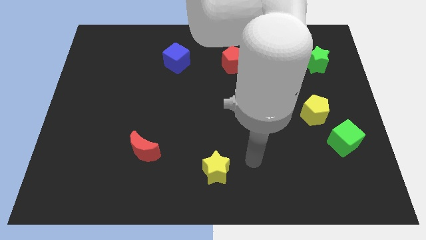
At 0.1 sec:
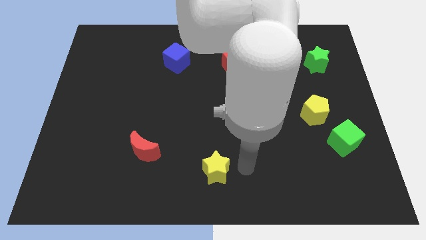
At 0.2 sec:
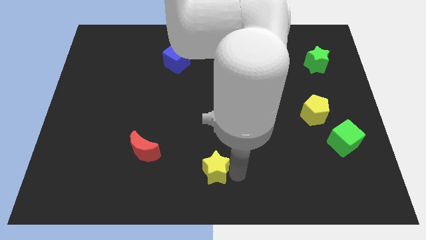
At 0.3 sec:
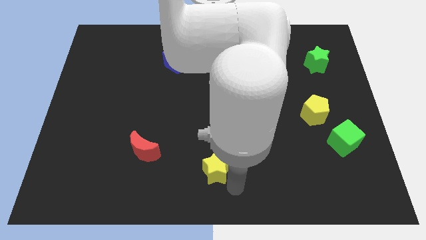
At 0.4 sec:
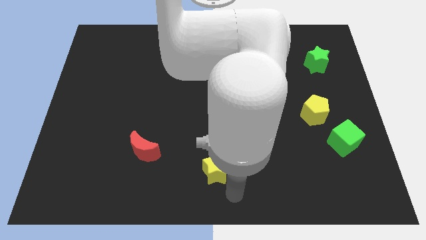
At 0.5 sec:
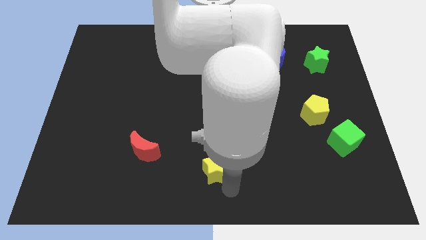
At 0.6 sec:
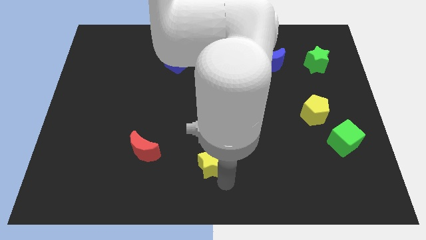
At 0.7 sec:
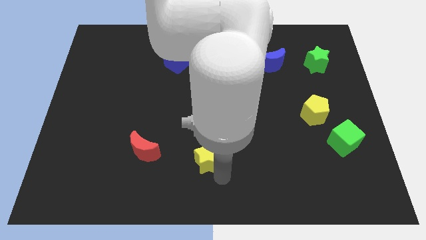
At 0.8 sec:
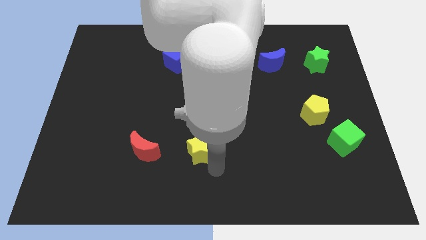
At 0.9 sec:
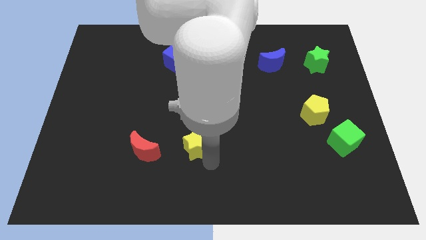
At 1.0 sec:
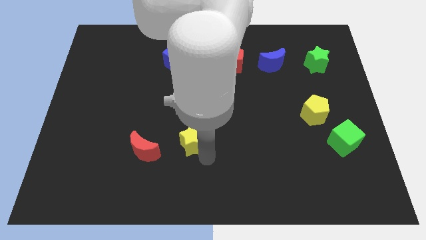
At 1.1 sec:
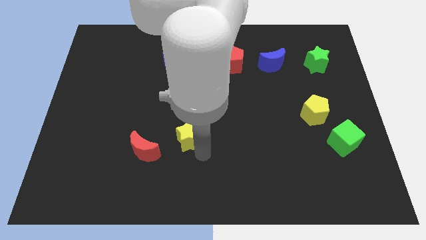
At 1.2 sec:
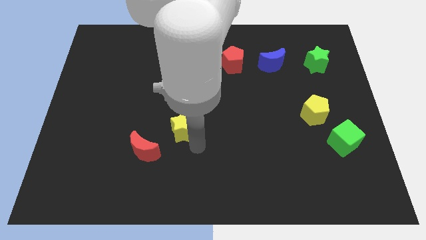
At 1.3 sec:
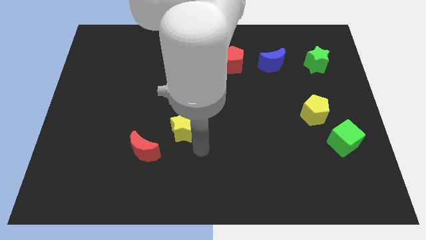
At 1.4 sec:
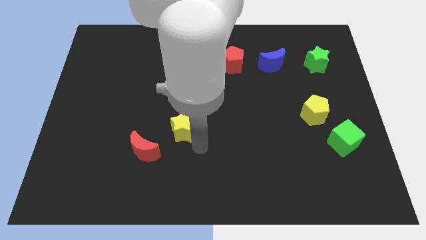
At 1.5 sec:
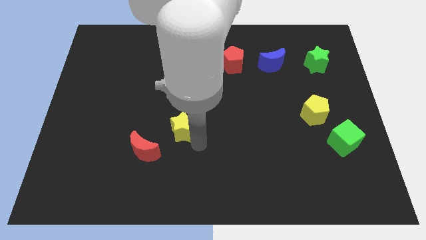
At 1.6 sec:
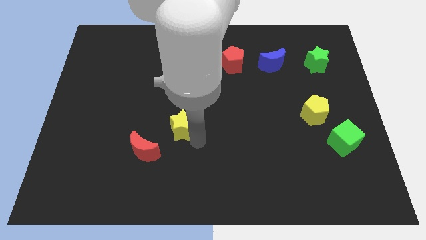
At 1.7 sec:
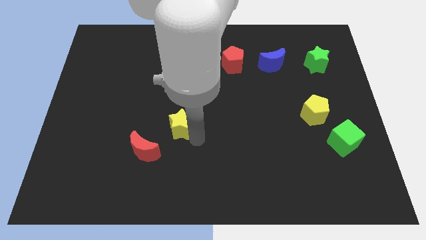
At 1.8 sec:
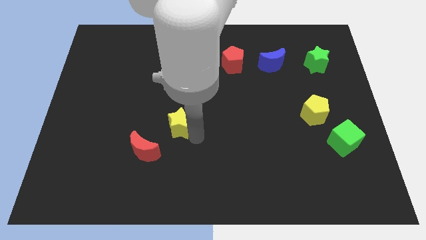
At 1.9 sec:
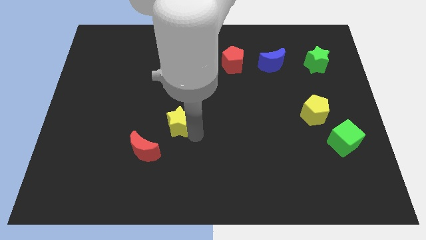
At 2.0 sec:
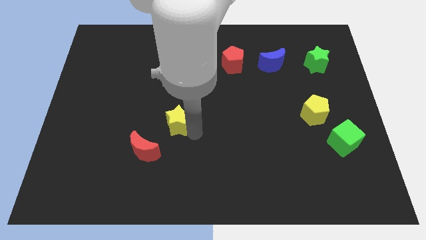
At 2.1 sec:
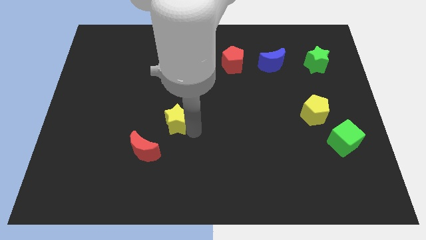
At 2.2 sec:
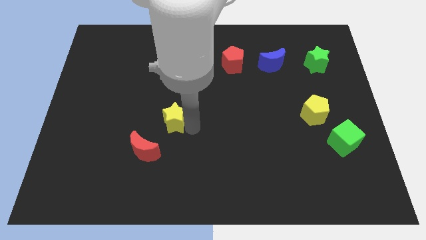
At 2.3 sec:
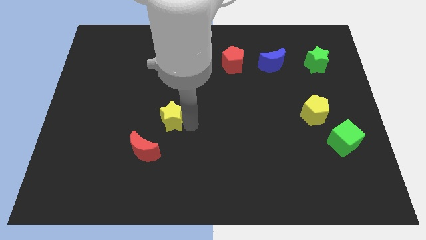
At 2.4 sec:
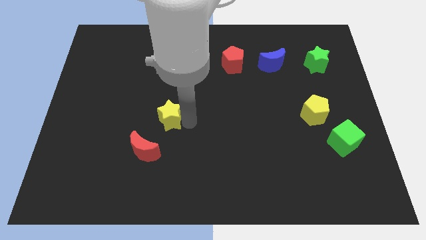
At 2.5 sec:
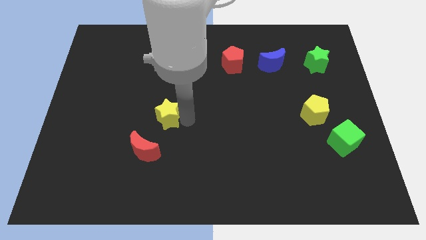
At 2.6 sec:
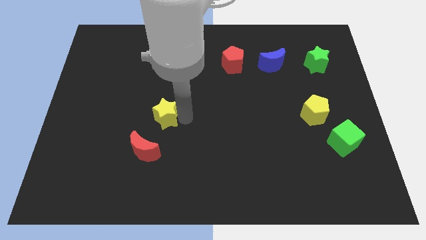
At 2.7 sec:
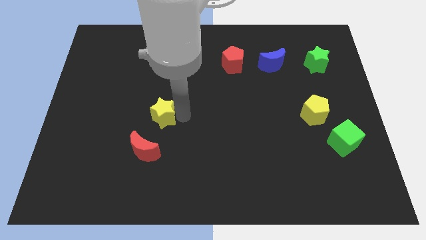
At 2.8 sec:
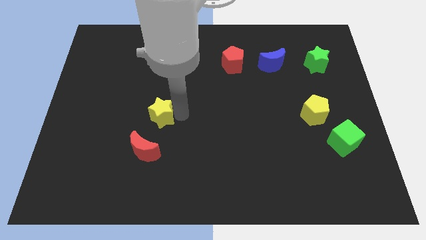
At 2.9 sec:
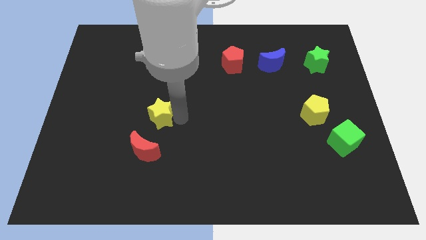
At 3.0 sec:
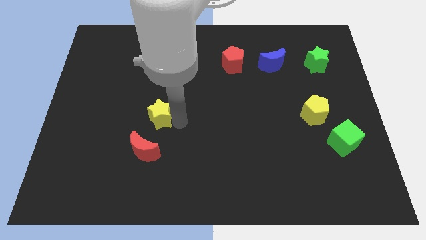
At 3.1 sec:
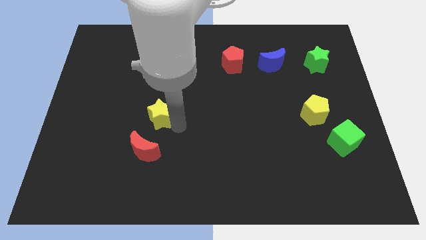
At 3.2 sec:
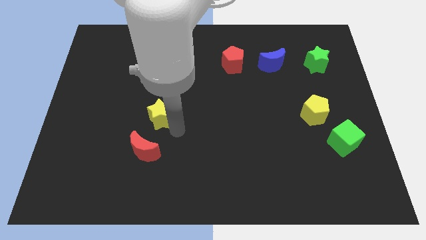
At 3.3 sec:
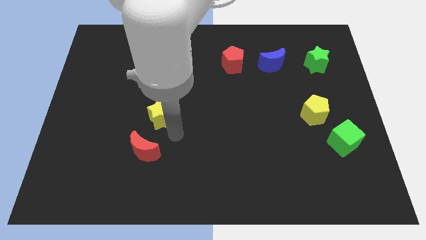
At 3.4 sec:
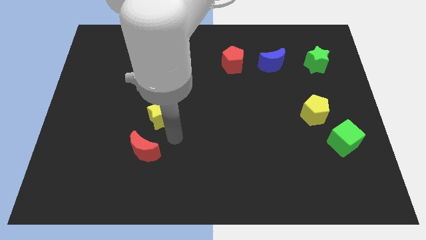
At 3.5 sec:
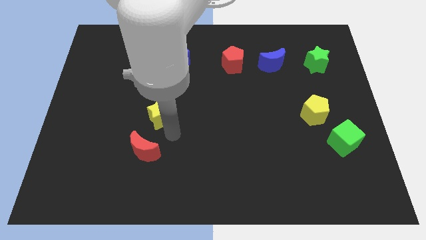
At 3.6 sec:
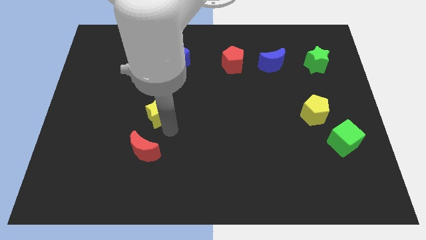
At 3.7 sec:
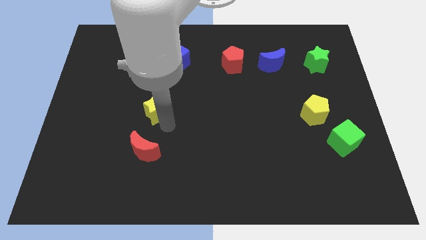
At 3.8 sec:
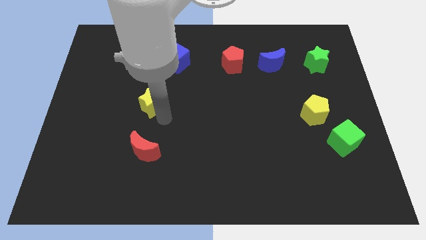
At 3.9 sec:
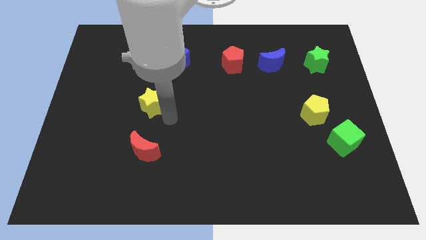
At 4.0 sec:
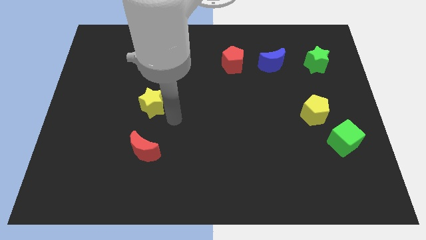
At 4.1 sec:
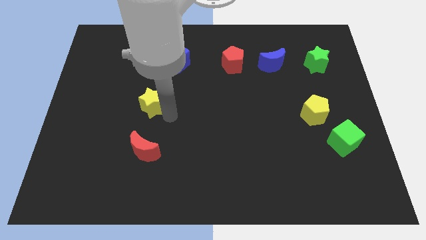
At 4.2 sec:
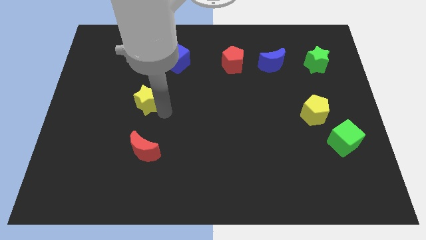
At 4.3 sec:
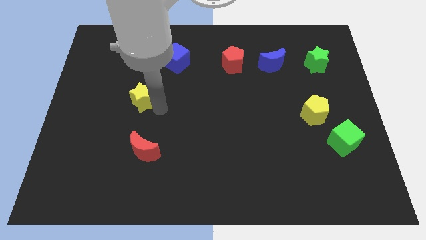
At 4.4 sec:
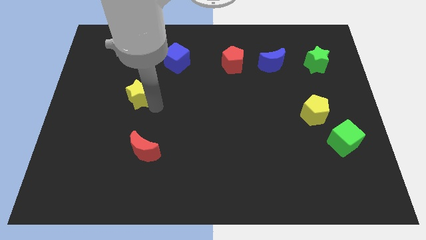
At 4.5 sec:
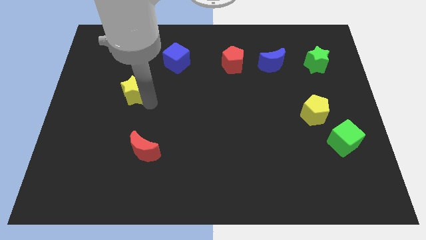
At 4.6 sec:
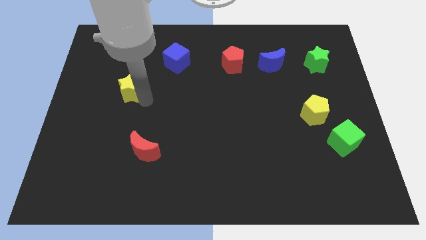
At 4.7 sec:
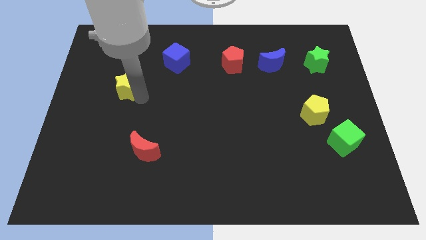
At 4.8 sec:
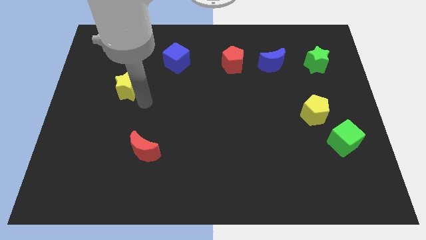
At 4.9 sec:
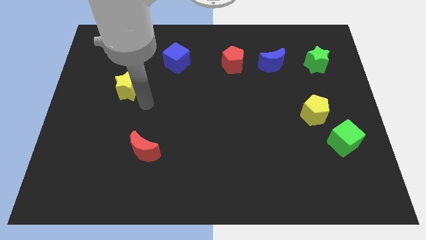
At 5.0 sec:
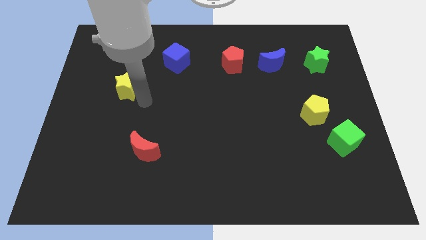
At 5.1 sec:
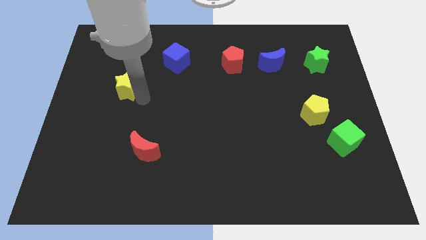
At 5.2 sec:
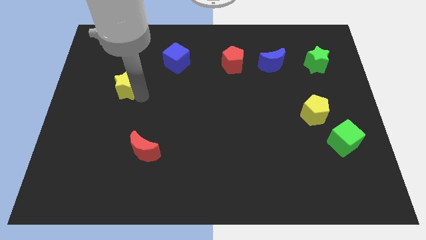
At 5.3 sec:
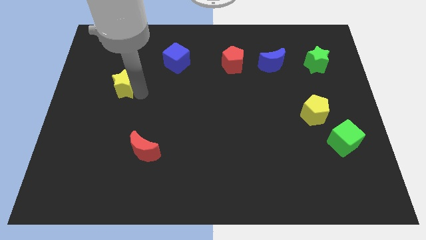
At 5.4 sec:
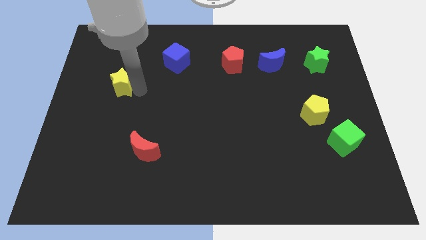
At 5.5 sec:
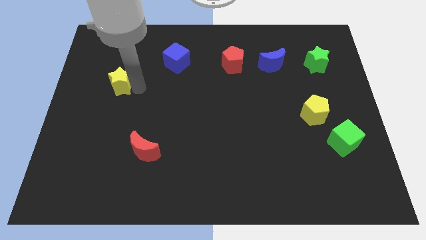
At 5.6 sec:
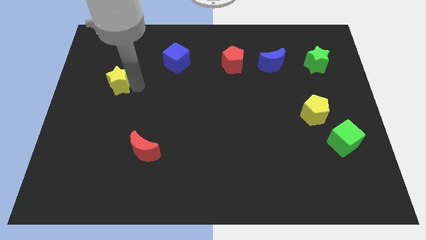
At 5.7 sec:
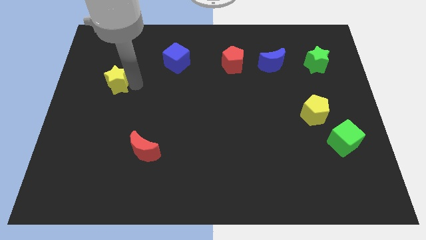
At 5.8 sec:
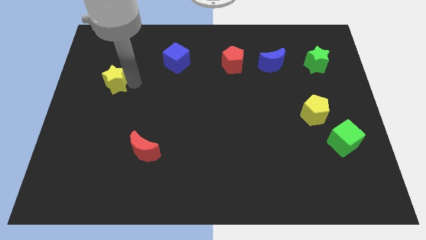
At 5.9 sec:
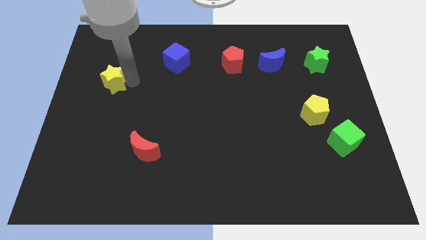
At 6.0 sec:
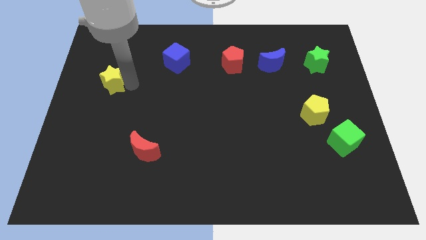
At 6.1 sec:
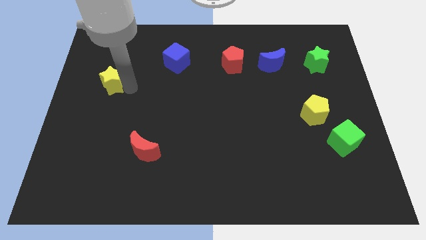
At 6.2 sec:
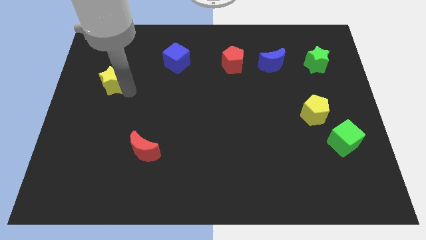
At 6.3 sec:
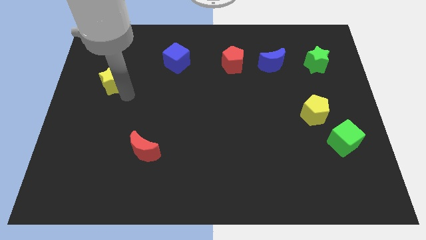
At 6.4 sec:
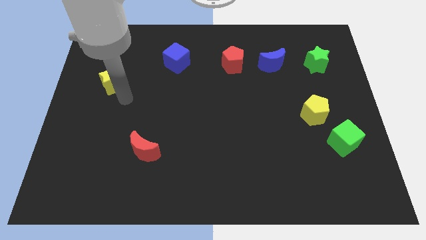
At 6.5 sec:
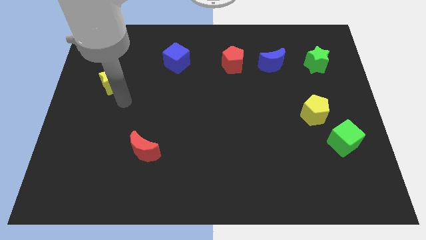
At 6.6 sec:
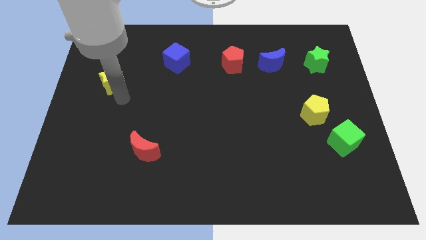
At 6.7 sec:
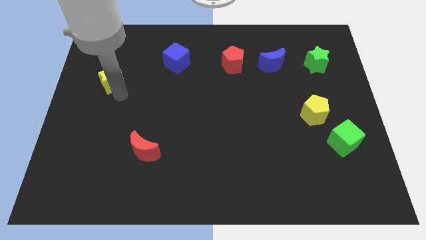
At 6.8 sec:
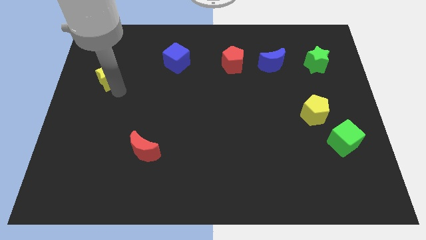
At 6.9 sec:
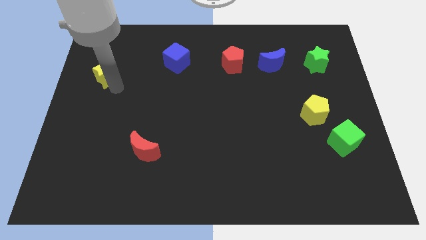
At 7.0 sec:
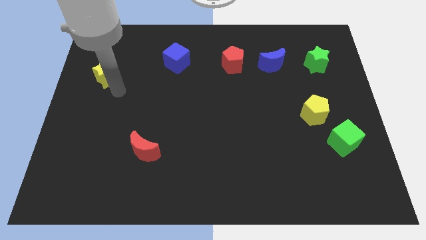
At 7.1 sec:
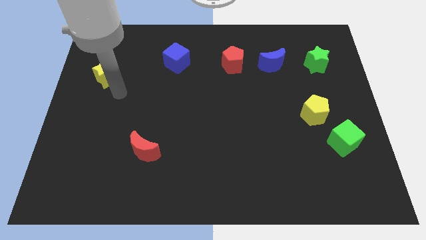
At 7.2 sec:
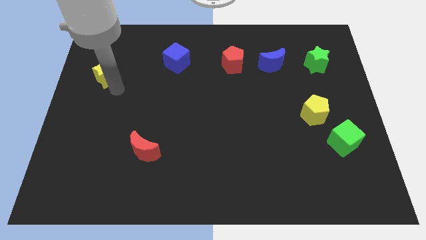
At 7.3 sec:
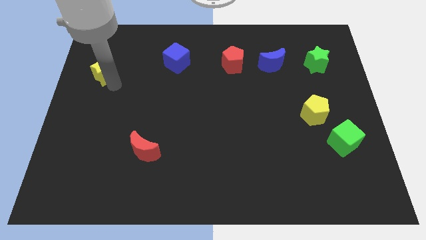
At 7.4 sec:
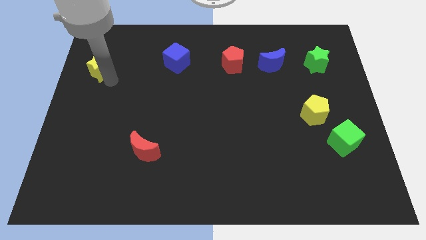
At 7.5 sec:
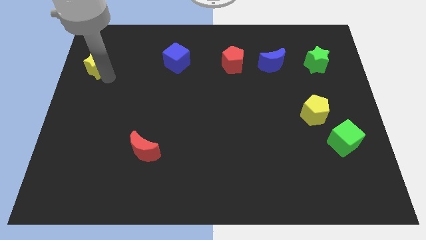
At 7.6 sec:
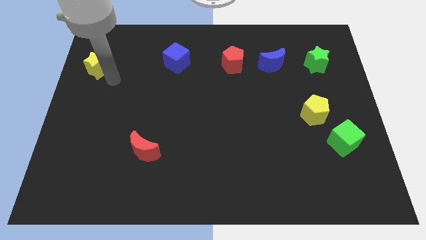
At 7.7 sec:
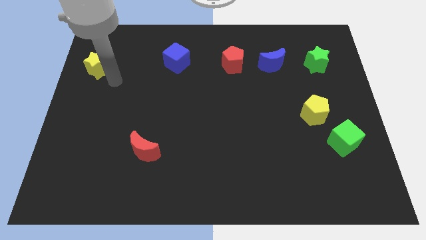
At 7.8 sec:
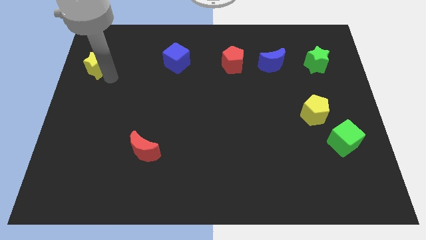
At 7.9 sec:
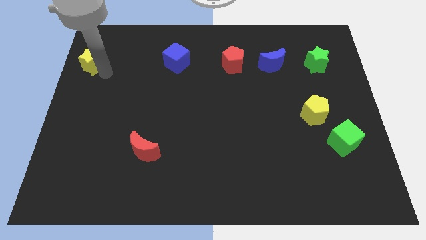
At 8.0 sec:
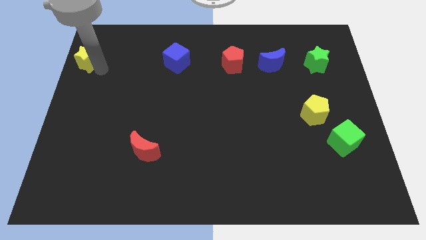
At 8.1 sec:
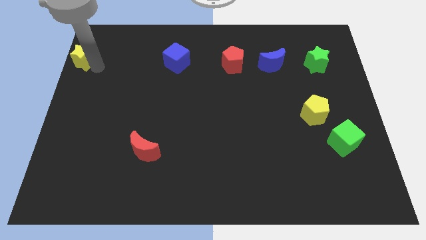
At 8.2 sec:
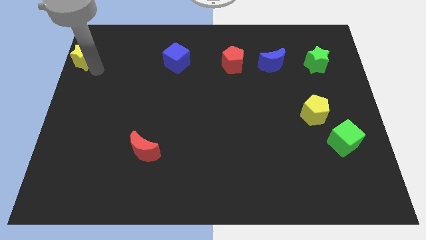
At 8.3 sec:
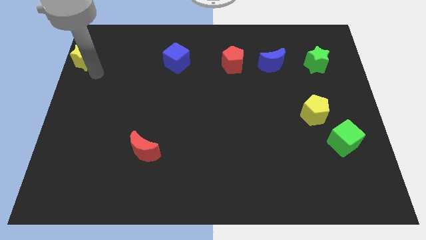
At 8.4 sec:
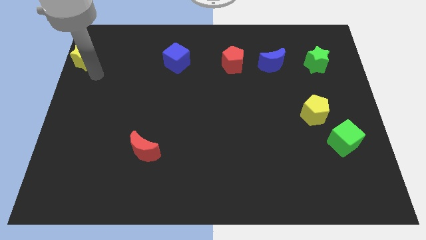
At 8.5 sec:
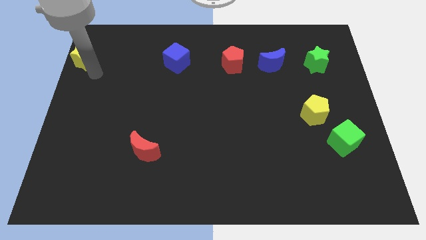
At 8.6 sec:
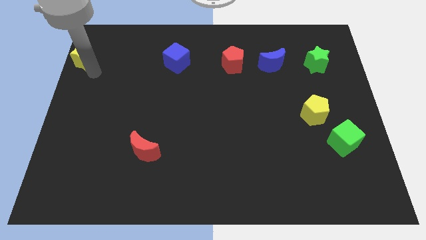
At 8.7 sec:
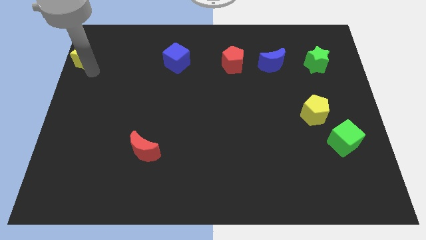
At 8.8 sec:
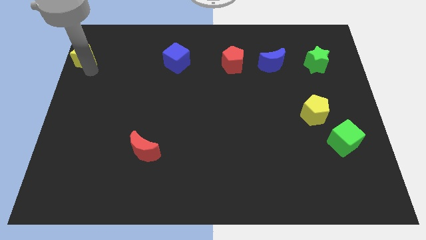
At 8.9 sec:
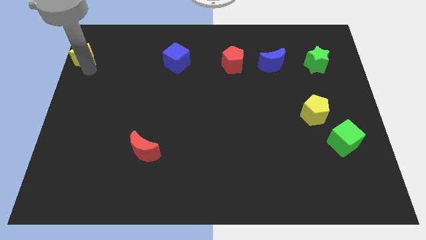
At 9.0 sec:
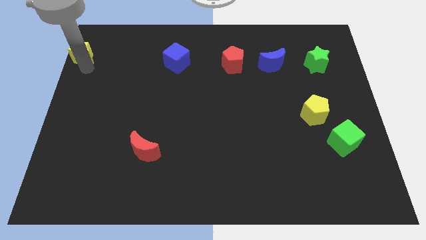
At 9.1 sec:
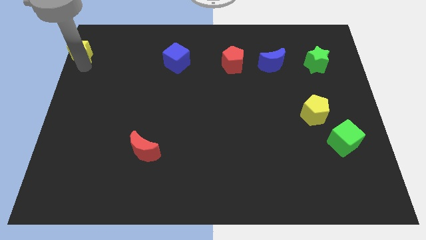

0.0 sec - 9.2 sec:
push the yellow star to the top left of the board
